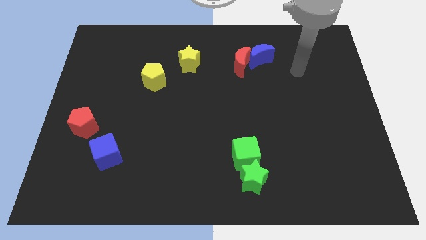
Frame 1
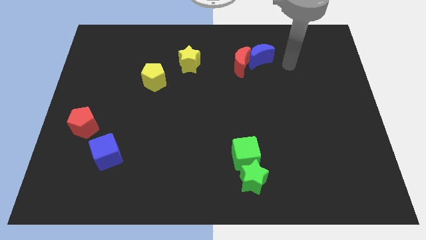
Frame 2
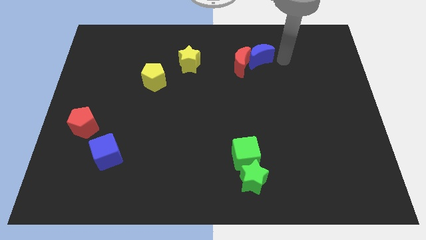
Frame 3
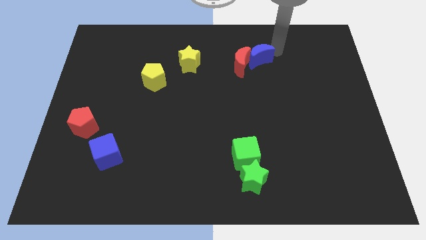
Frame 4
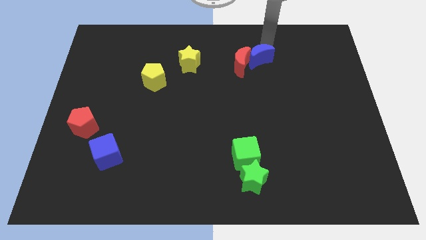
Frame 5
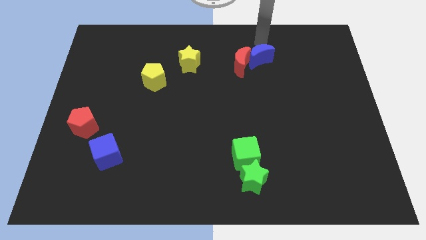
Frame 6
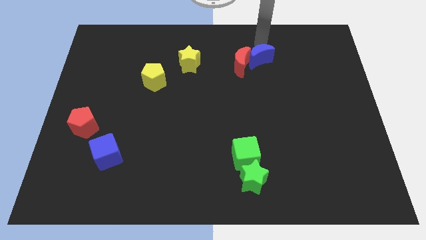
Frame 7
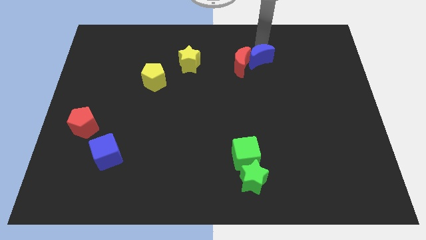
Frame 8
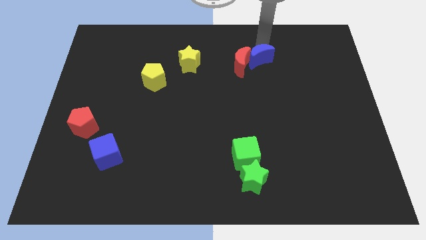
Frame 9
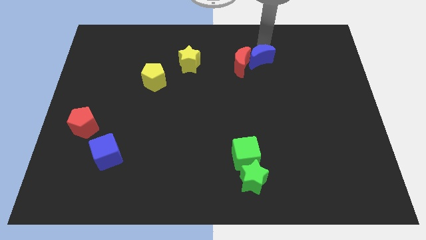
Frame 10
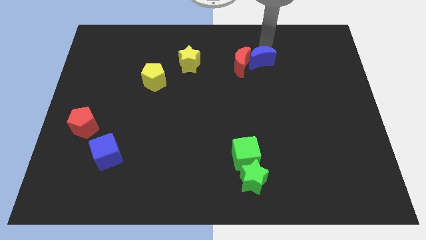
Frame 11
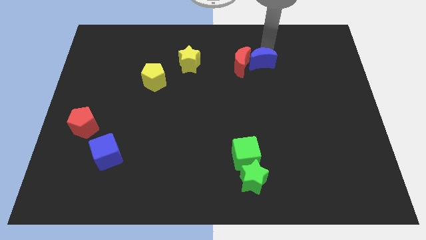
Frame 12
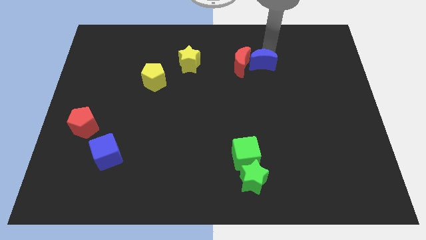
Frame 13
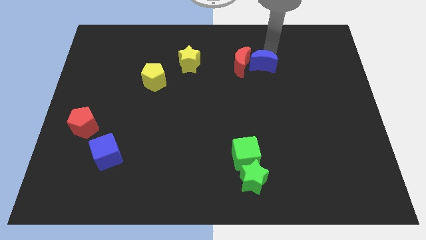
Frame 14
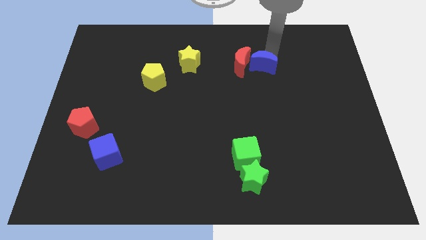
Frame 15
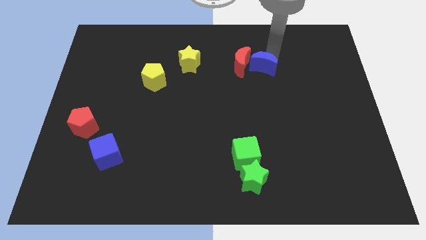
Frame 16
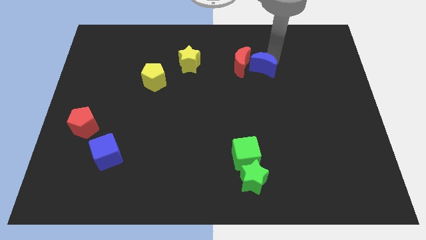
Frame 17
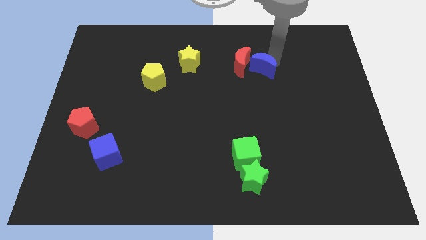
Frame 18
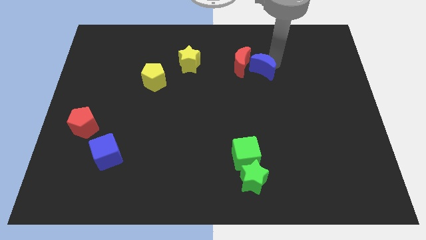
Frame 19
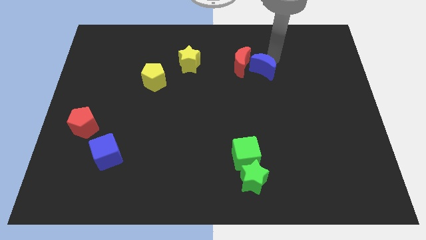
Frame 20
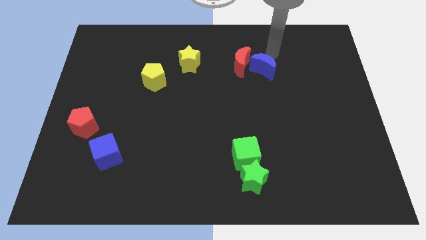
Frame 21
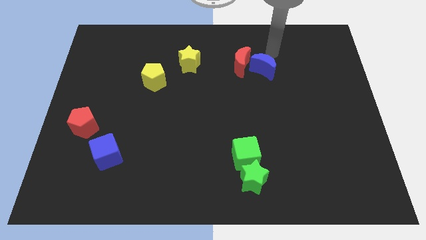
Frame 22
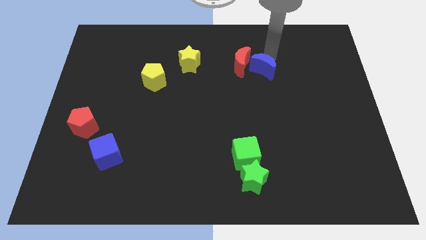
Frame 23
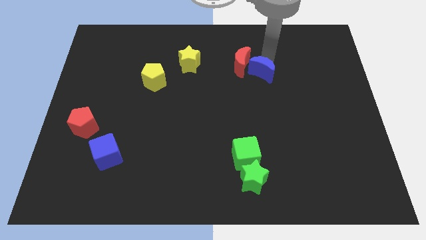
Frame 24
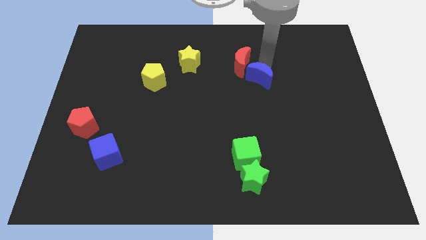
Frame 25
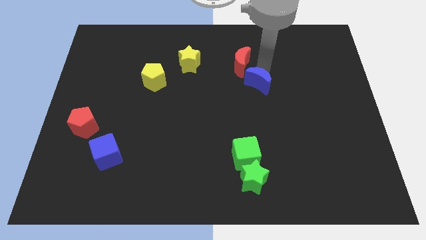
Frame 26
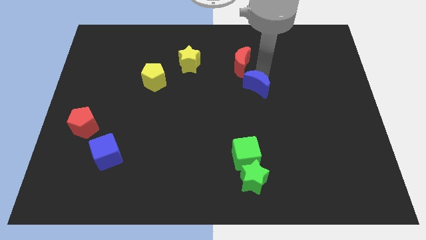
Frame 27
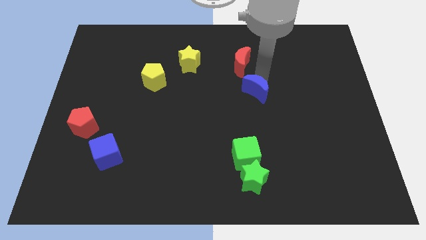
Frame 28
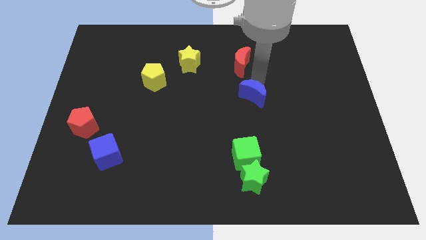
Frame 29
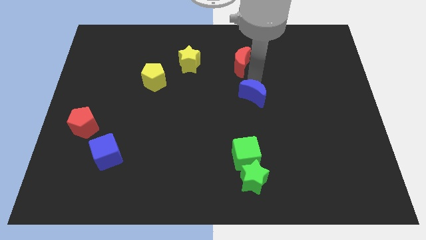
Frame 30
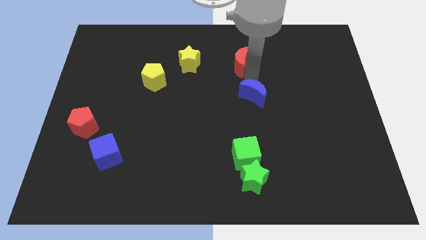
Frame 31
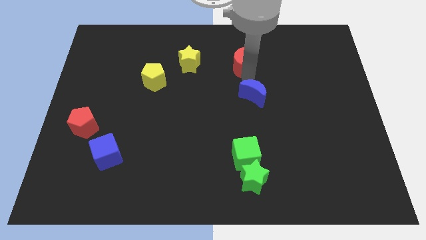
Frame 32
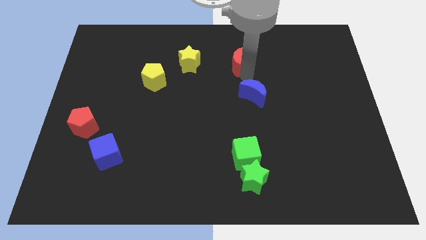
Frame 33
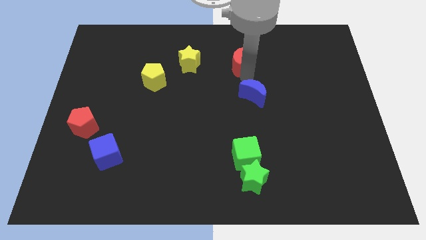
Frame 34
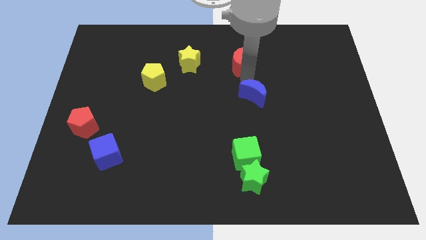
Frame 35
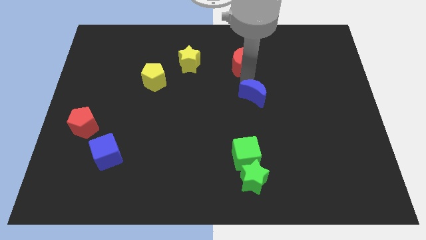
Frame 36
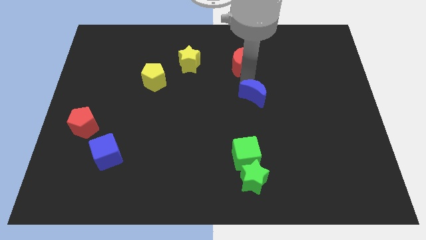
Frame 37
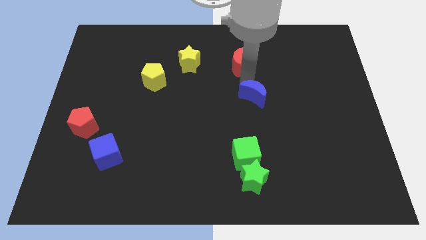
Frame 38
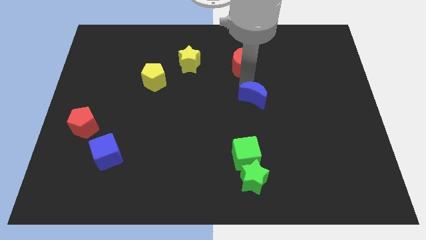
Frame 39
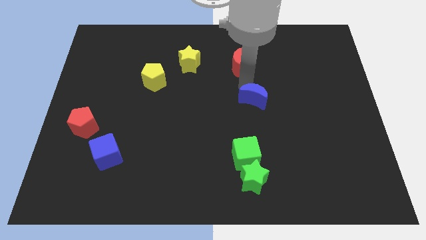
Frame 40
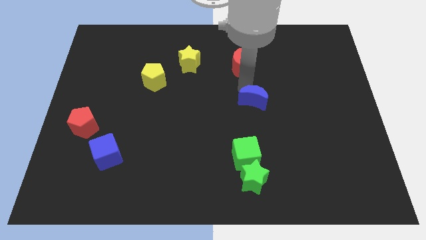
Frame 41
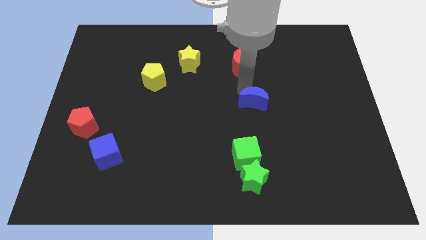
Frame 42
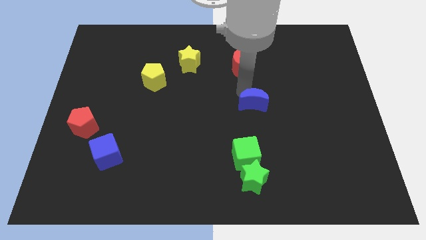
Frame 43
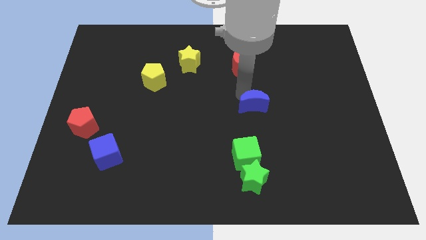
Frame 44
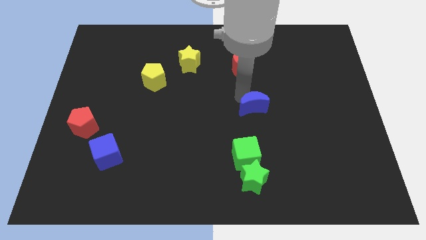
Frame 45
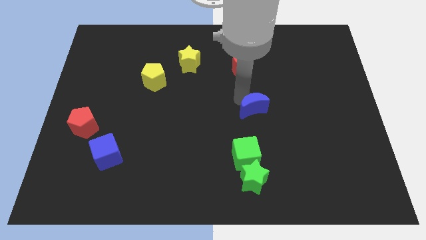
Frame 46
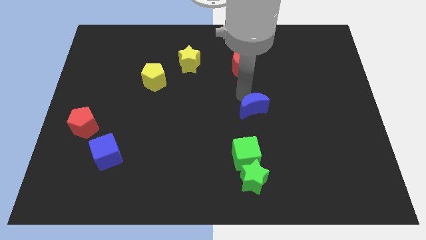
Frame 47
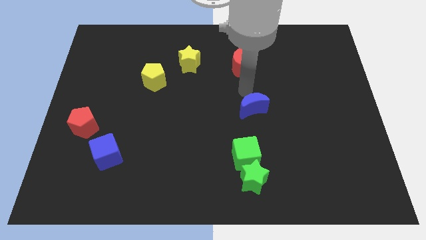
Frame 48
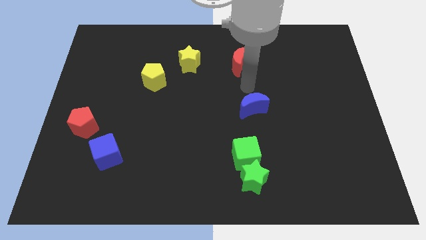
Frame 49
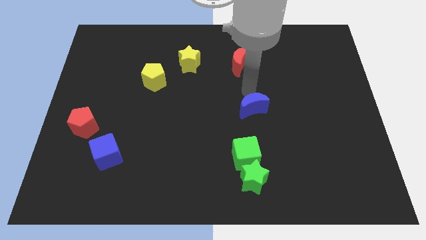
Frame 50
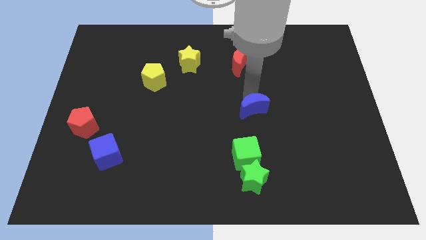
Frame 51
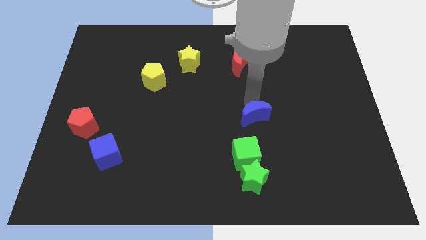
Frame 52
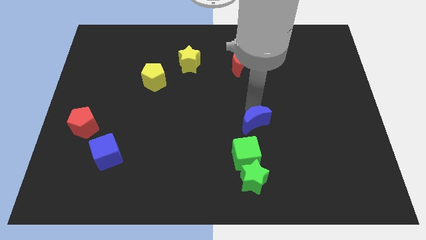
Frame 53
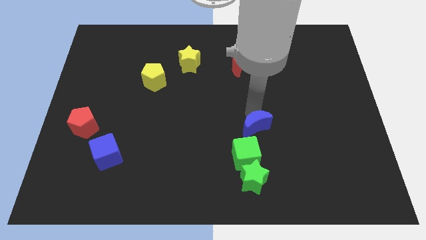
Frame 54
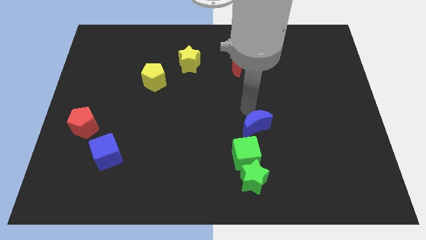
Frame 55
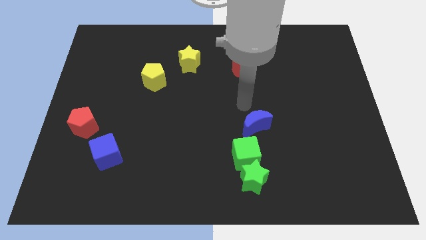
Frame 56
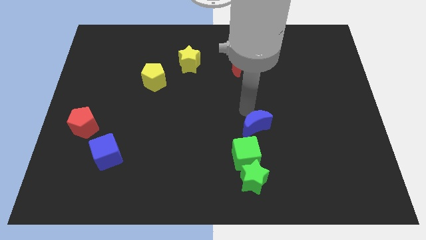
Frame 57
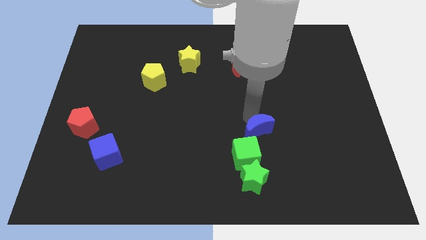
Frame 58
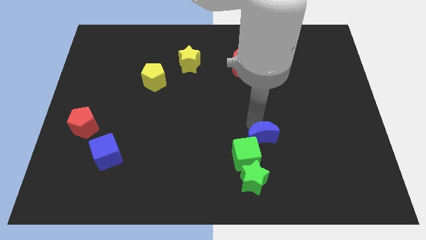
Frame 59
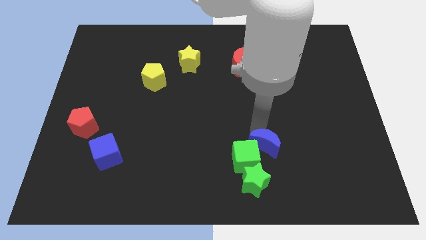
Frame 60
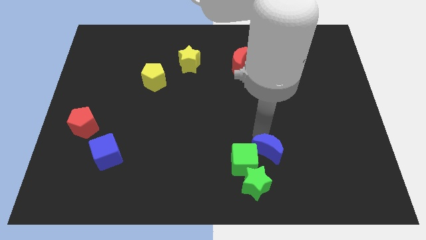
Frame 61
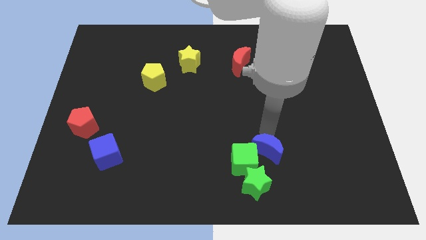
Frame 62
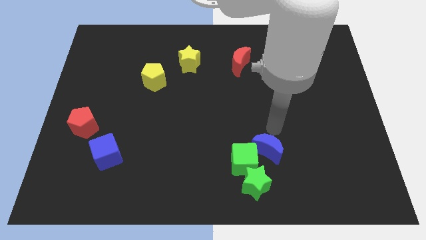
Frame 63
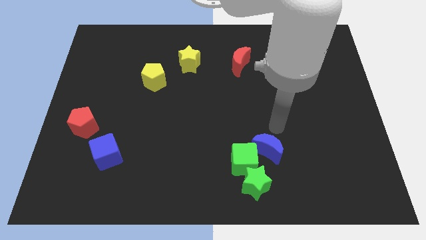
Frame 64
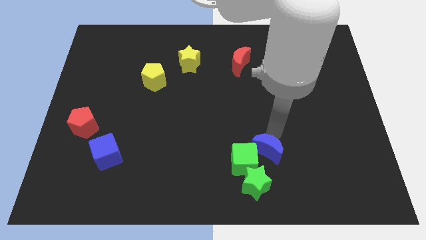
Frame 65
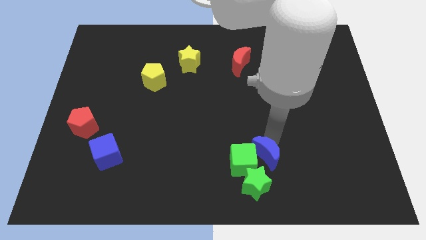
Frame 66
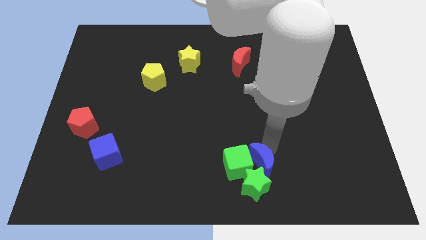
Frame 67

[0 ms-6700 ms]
push the blue moon towards the green star

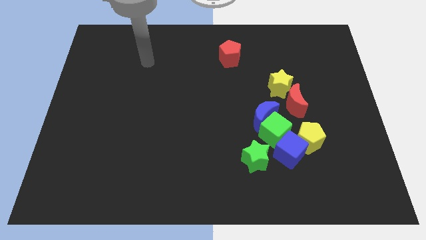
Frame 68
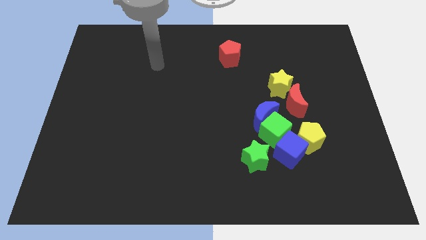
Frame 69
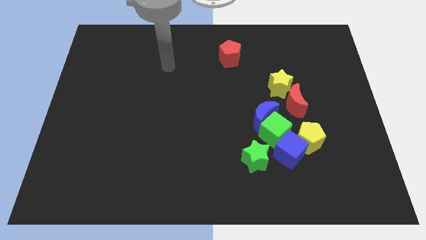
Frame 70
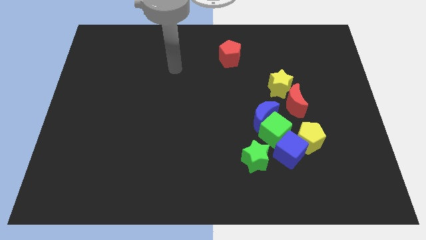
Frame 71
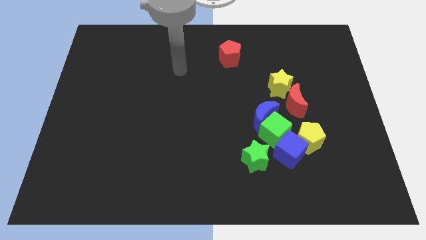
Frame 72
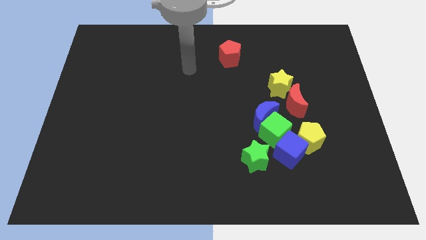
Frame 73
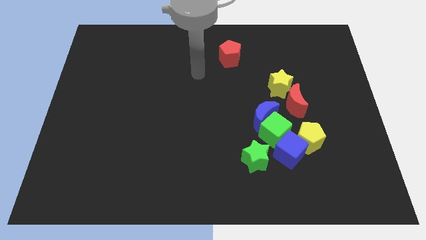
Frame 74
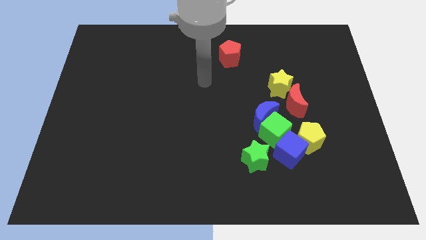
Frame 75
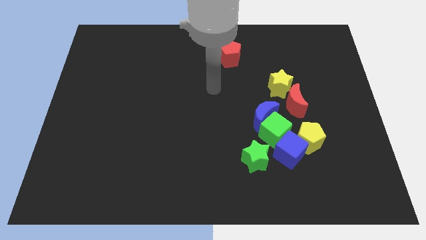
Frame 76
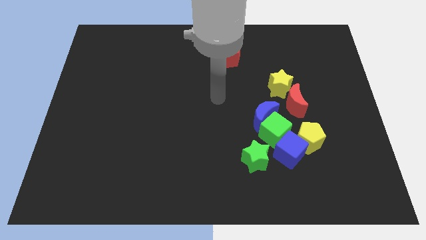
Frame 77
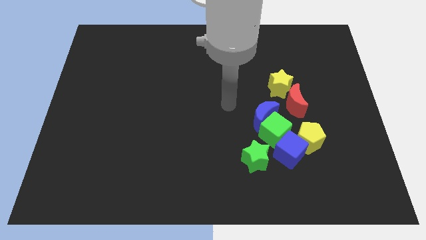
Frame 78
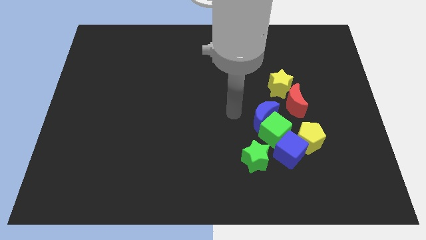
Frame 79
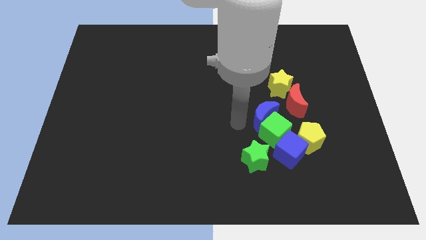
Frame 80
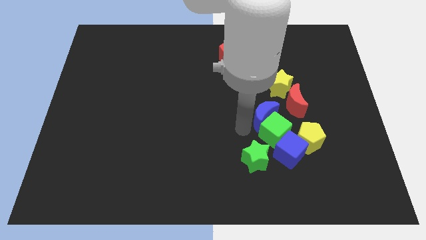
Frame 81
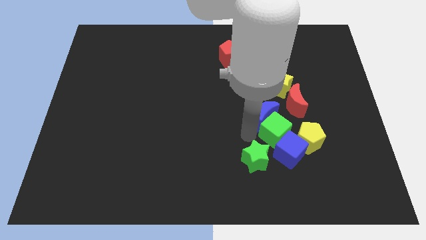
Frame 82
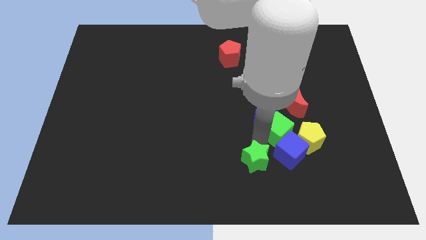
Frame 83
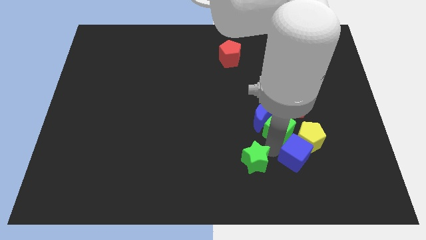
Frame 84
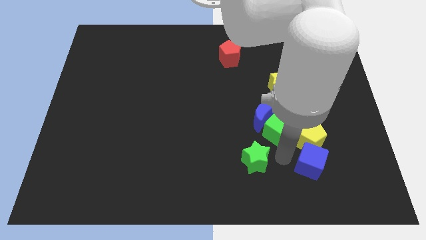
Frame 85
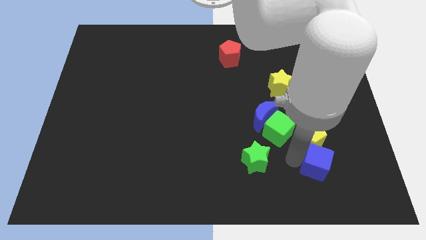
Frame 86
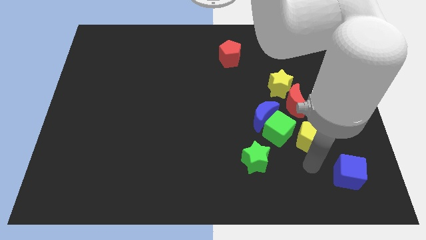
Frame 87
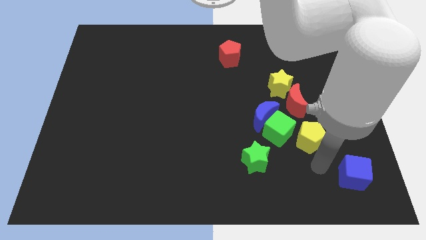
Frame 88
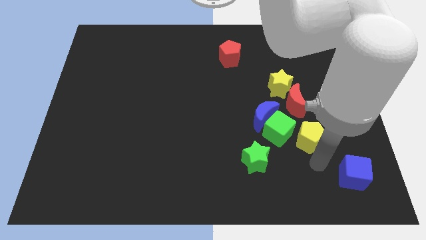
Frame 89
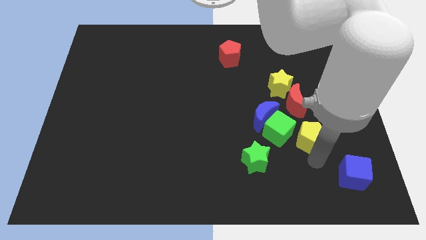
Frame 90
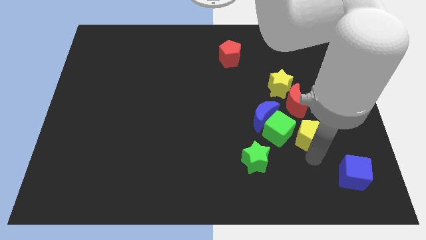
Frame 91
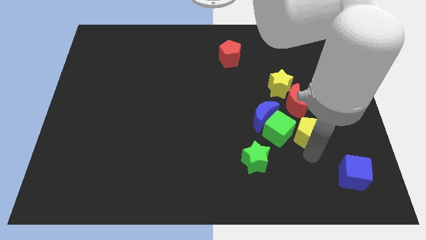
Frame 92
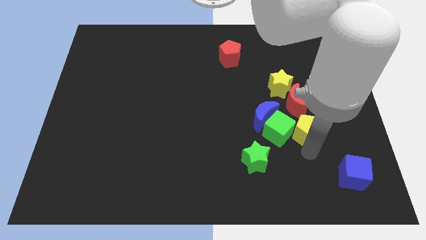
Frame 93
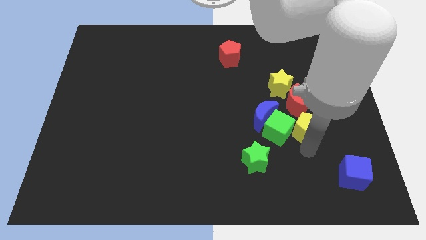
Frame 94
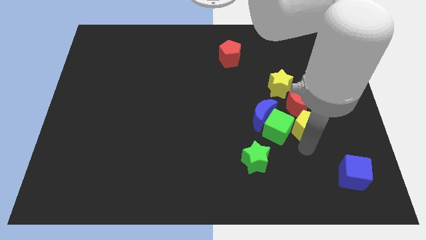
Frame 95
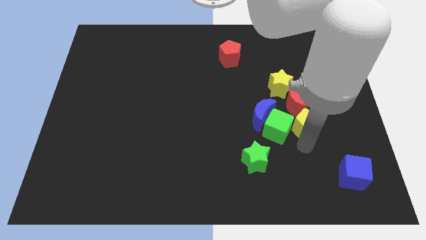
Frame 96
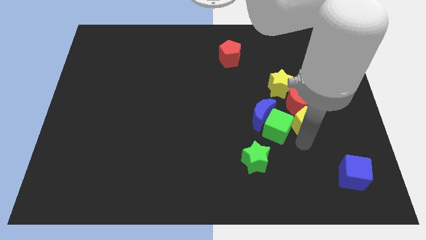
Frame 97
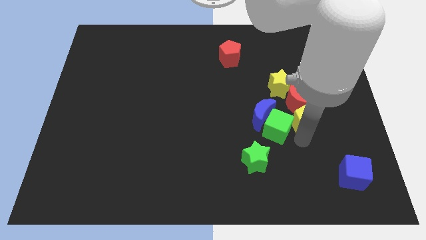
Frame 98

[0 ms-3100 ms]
push the yellow pentagon to the red moon
